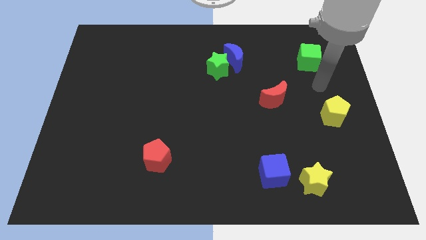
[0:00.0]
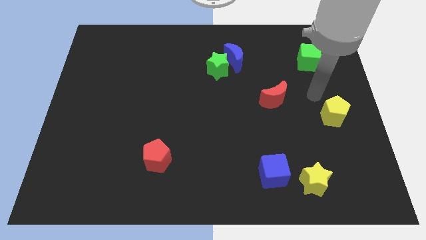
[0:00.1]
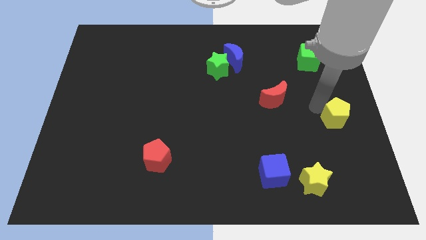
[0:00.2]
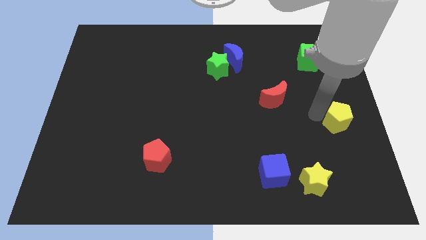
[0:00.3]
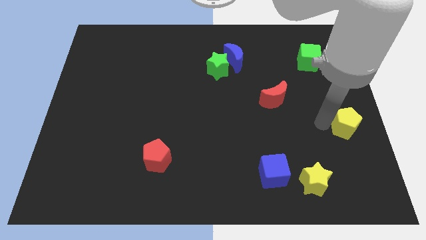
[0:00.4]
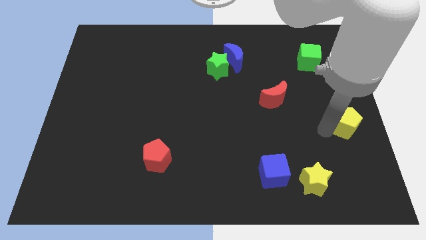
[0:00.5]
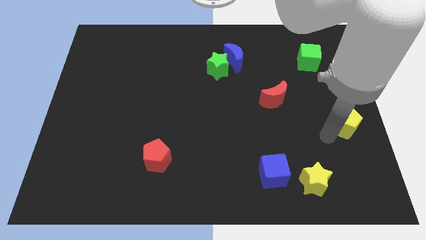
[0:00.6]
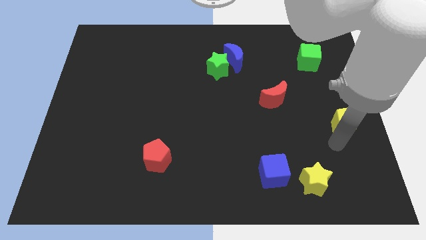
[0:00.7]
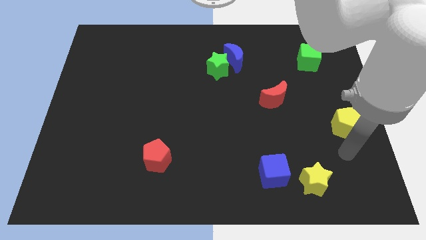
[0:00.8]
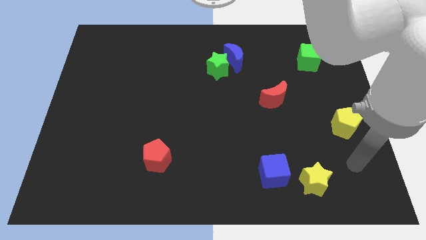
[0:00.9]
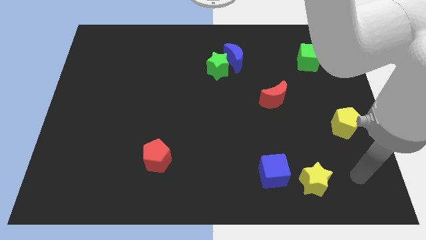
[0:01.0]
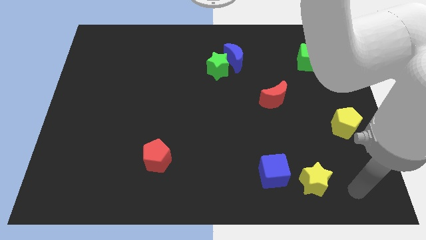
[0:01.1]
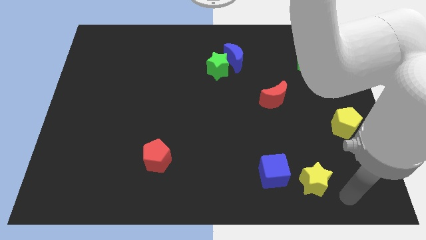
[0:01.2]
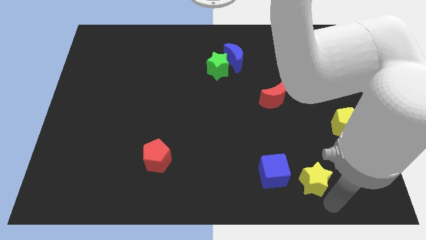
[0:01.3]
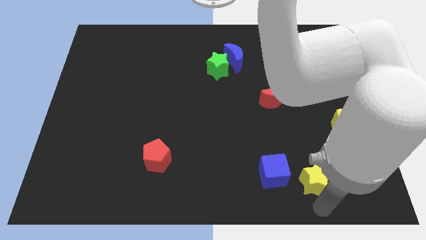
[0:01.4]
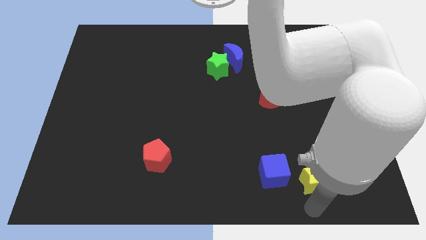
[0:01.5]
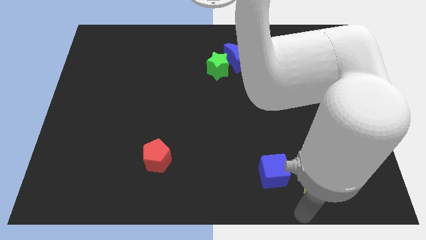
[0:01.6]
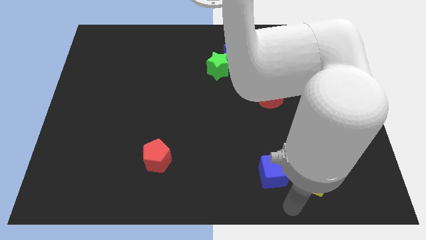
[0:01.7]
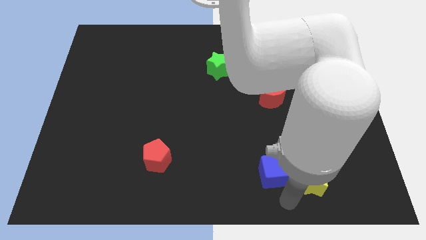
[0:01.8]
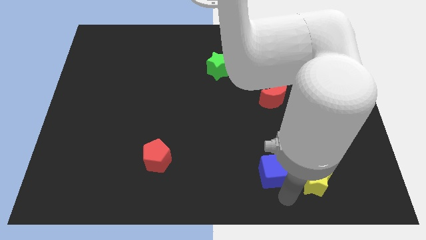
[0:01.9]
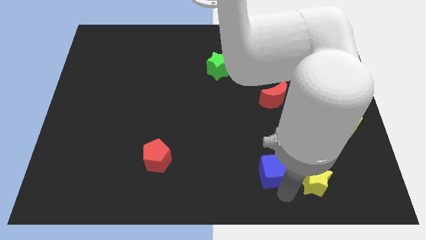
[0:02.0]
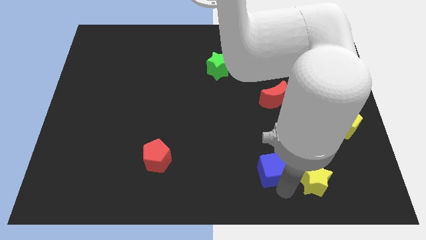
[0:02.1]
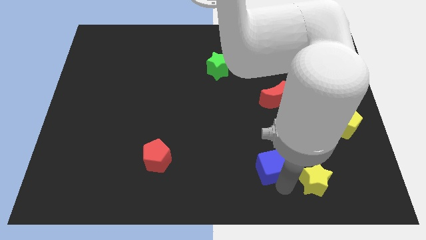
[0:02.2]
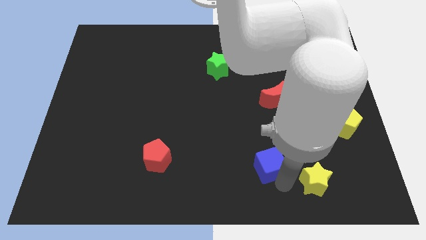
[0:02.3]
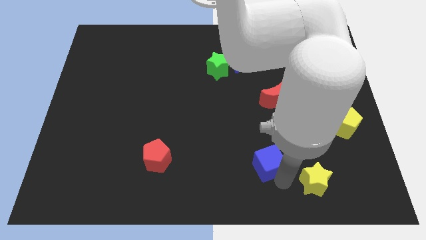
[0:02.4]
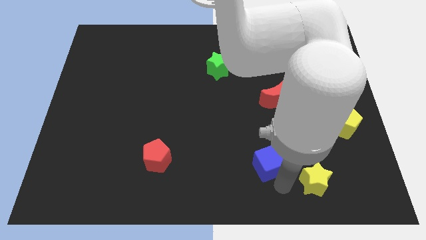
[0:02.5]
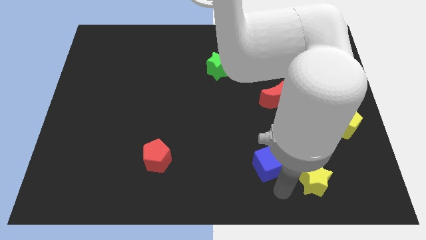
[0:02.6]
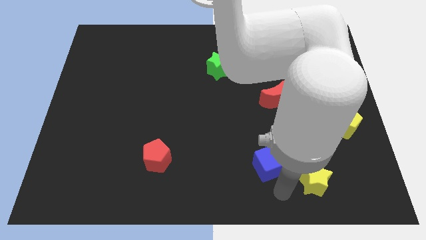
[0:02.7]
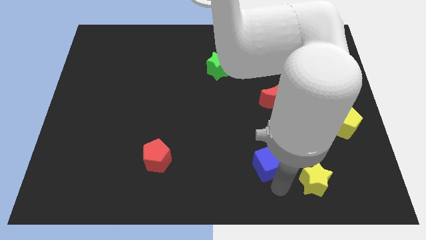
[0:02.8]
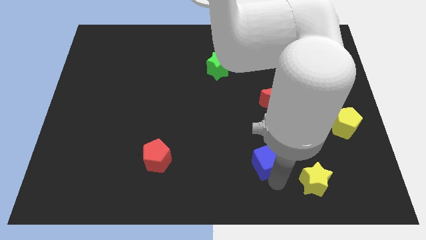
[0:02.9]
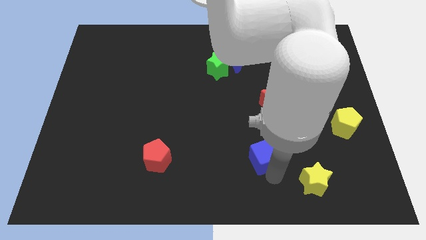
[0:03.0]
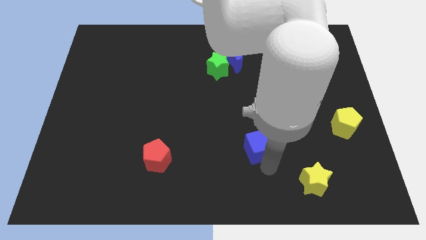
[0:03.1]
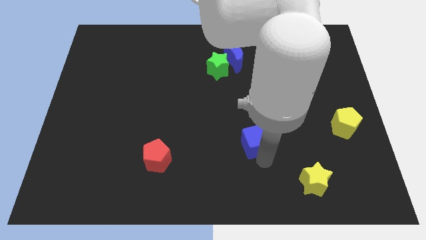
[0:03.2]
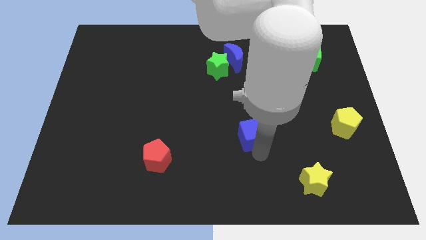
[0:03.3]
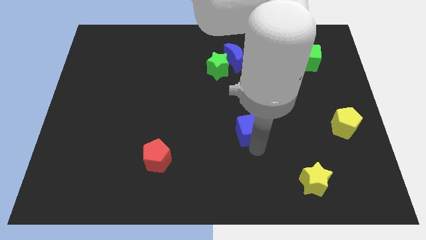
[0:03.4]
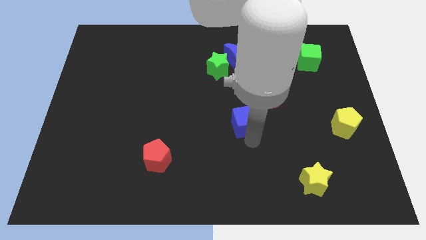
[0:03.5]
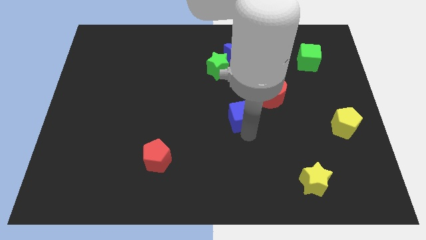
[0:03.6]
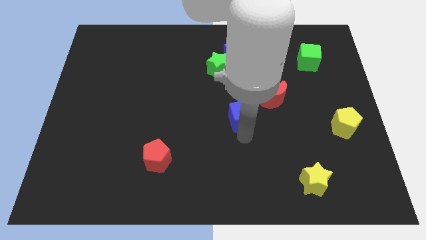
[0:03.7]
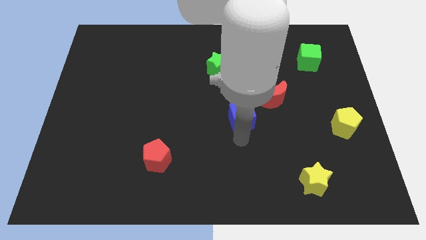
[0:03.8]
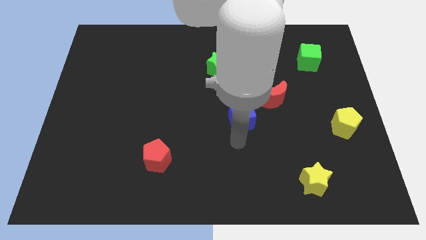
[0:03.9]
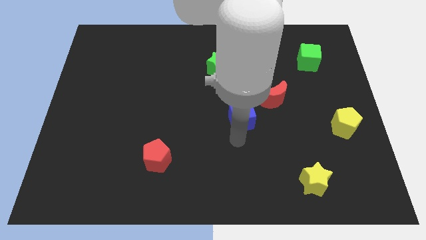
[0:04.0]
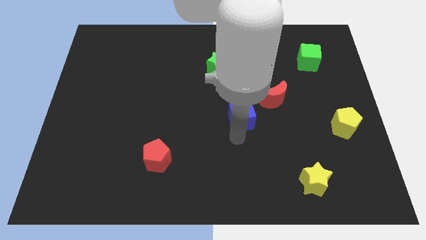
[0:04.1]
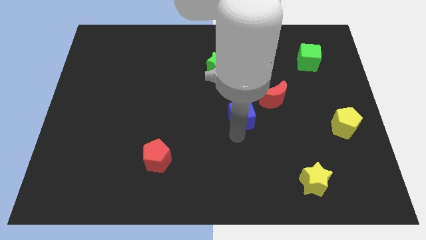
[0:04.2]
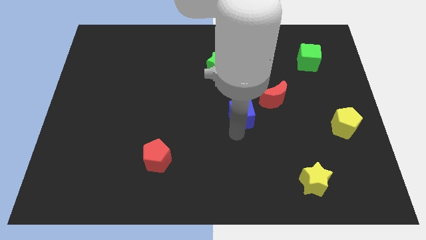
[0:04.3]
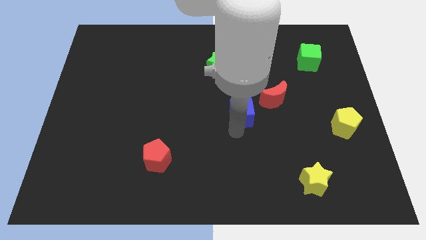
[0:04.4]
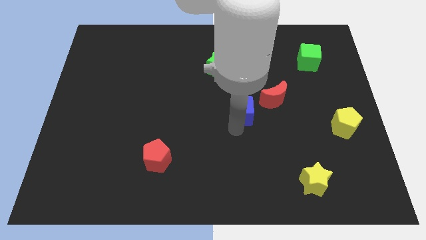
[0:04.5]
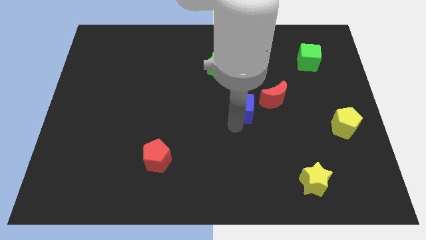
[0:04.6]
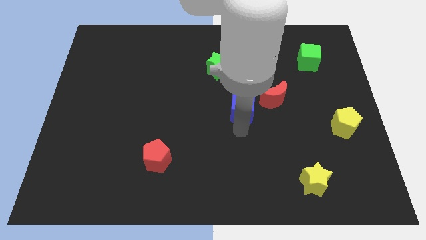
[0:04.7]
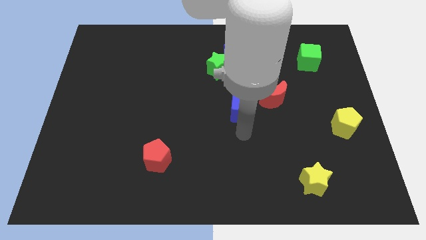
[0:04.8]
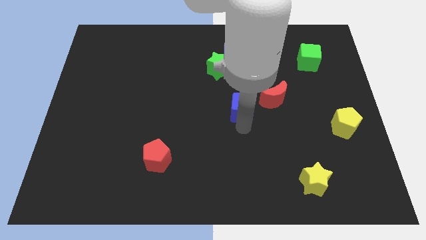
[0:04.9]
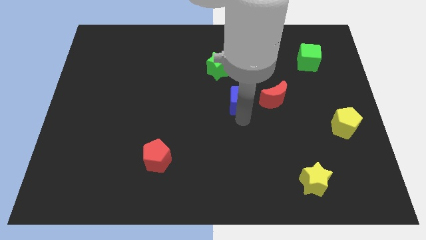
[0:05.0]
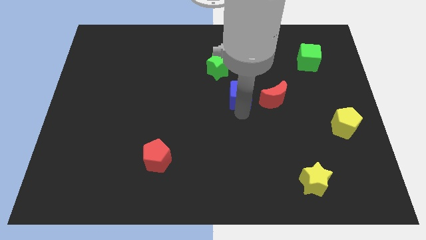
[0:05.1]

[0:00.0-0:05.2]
slide the blue cube to the bottom right side of the green star

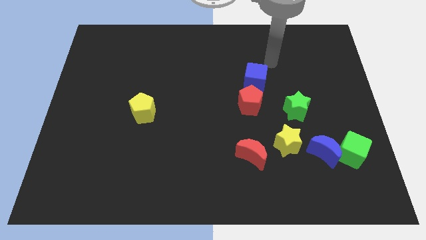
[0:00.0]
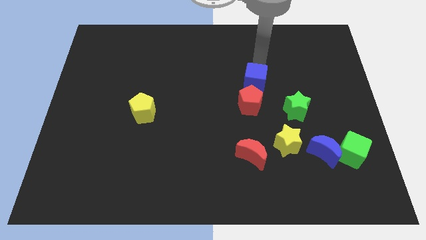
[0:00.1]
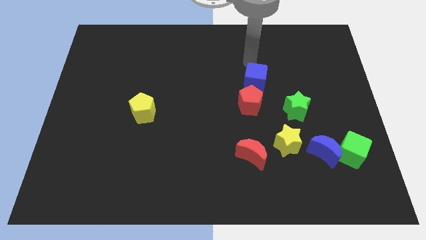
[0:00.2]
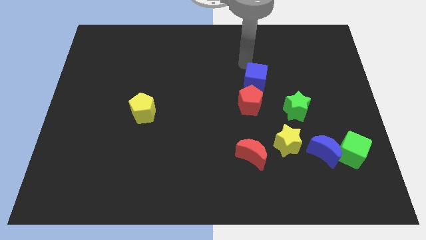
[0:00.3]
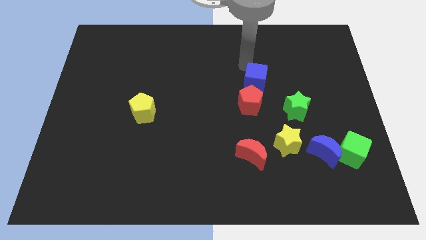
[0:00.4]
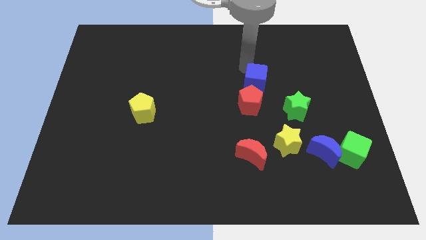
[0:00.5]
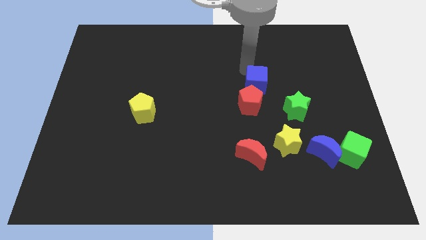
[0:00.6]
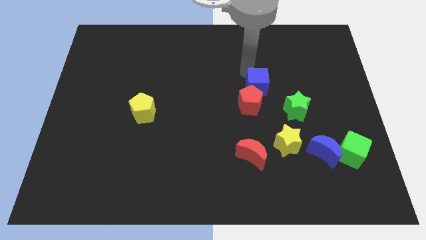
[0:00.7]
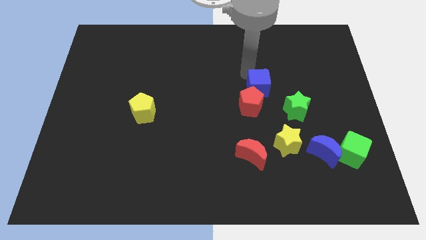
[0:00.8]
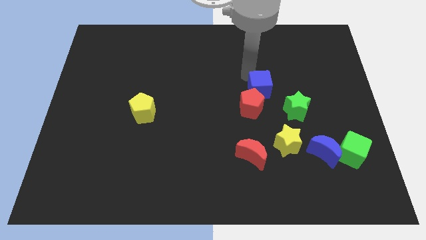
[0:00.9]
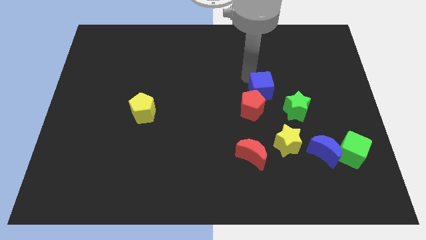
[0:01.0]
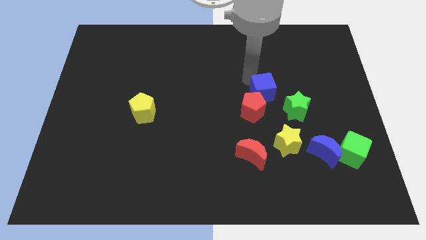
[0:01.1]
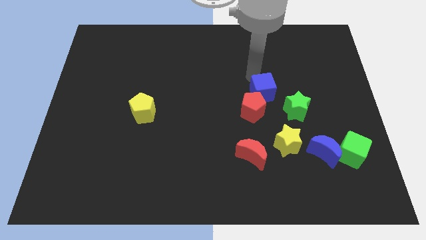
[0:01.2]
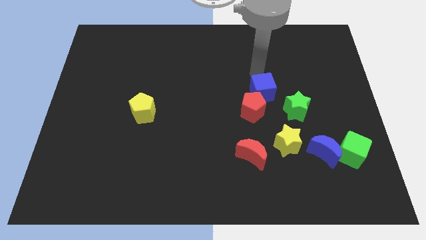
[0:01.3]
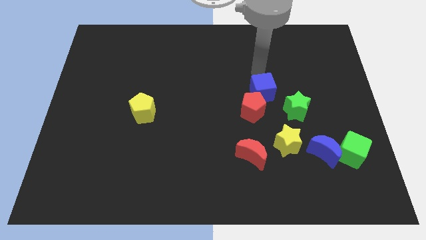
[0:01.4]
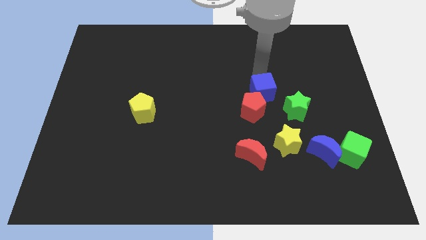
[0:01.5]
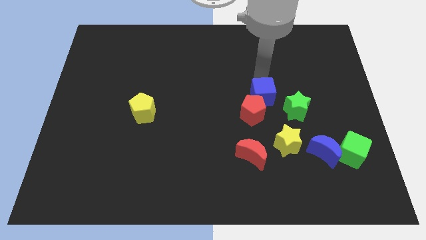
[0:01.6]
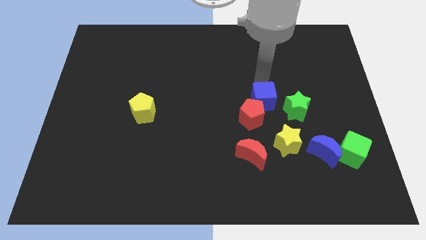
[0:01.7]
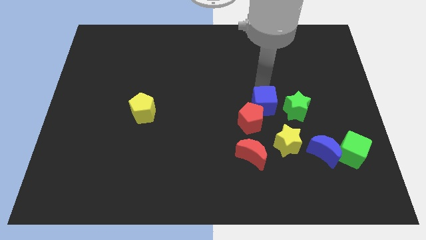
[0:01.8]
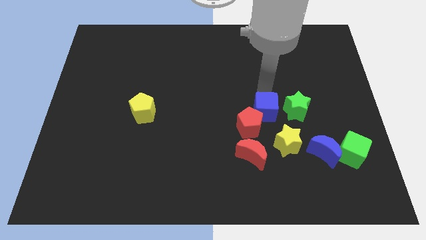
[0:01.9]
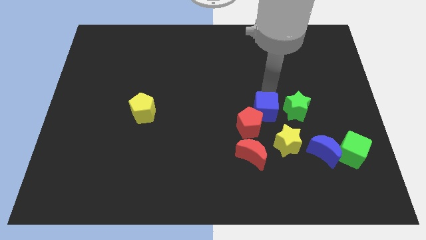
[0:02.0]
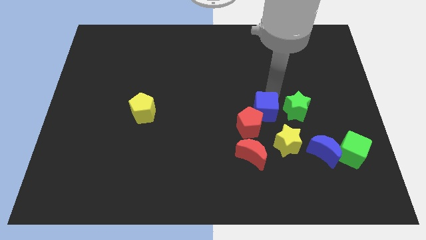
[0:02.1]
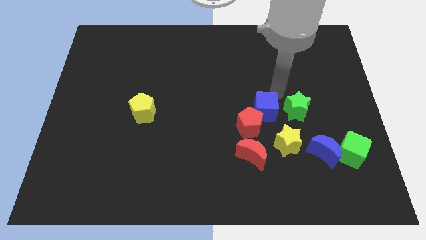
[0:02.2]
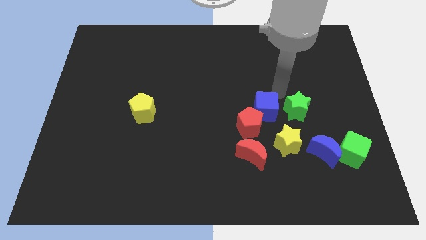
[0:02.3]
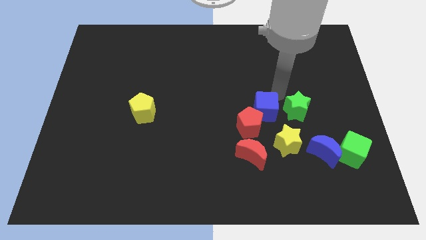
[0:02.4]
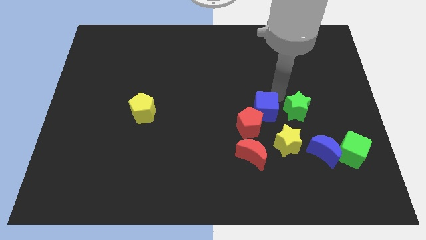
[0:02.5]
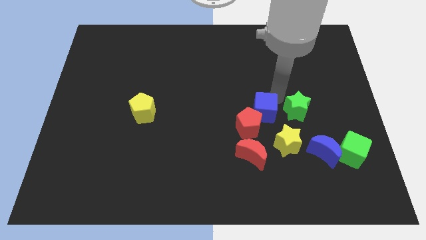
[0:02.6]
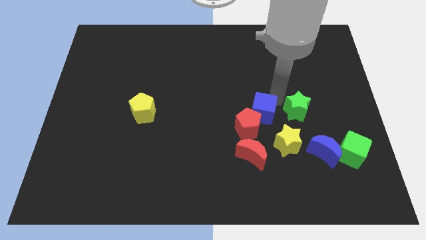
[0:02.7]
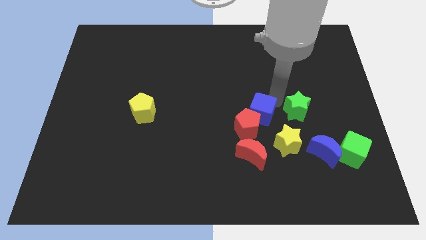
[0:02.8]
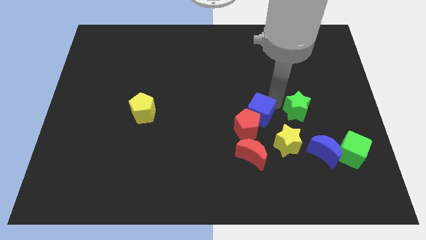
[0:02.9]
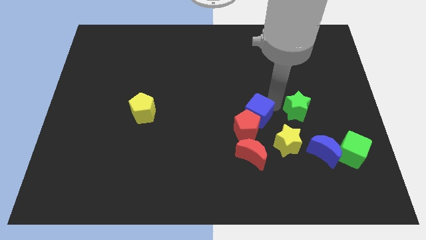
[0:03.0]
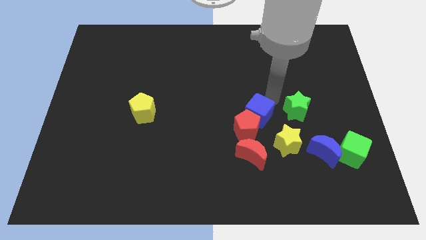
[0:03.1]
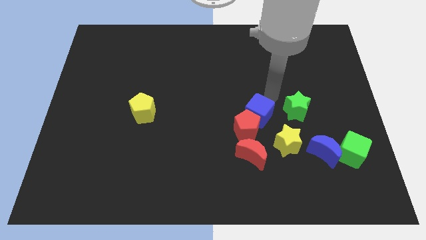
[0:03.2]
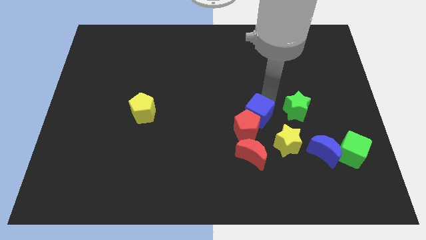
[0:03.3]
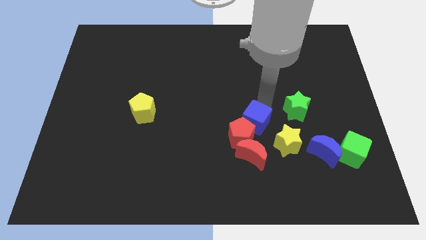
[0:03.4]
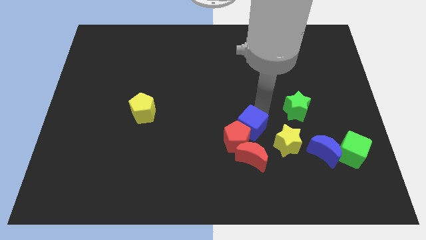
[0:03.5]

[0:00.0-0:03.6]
push the blue cube left of the yellow star
